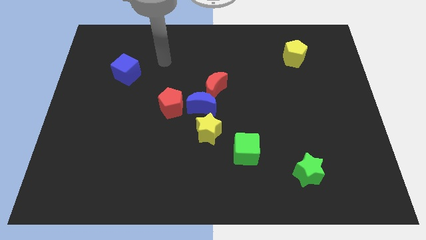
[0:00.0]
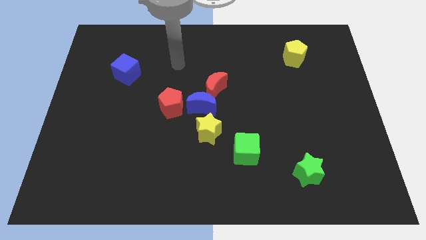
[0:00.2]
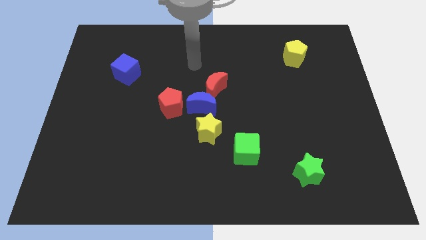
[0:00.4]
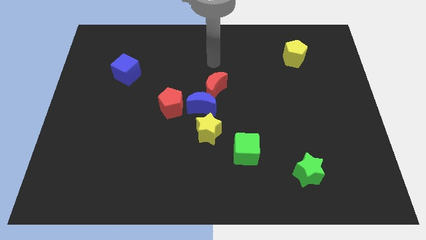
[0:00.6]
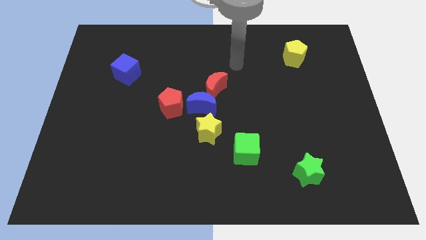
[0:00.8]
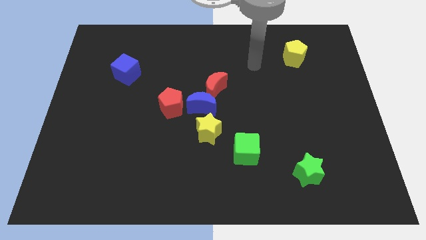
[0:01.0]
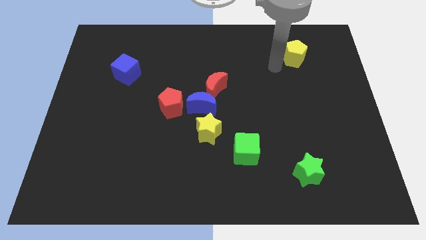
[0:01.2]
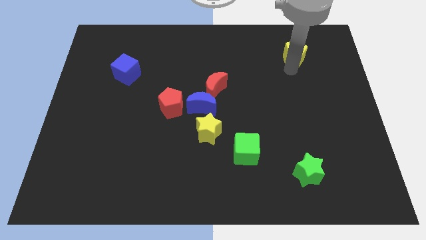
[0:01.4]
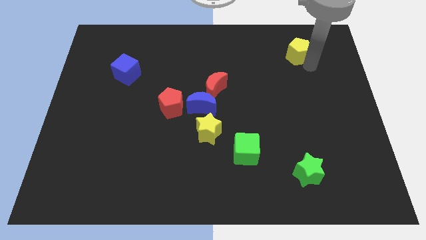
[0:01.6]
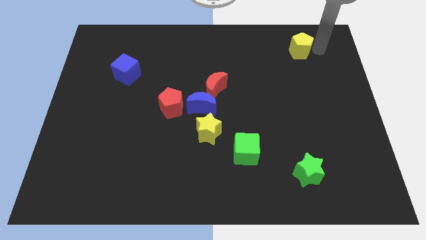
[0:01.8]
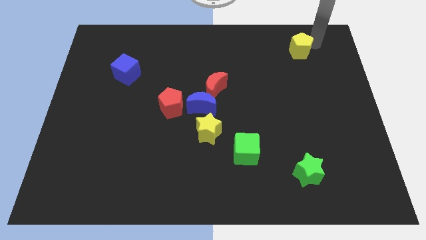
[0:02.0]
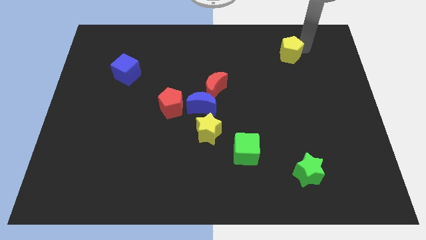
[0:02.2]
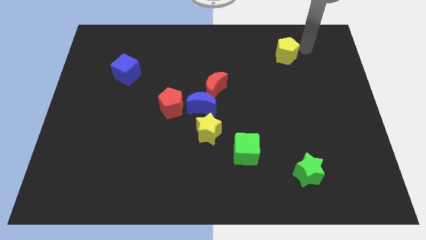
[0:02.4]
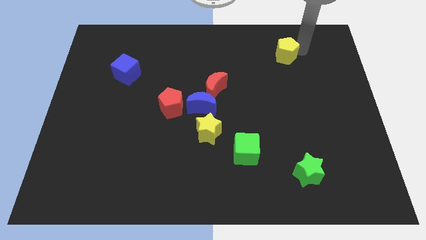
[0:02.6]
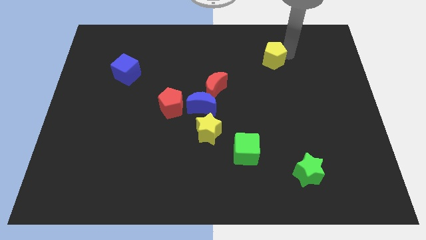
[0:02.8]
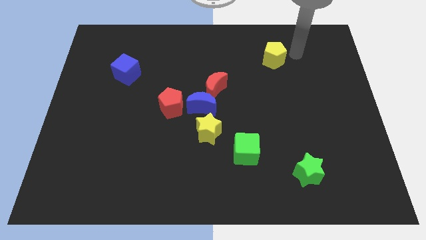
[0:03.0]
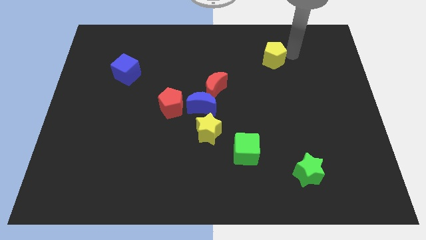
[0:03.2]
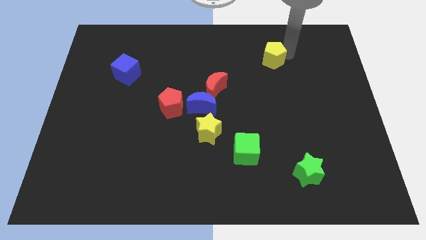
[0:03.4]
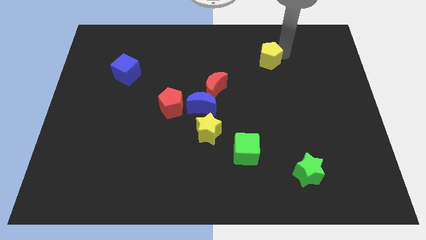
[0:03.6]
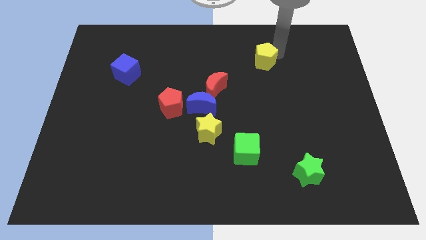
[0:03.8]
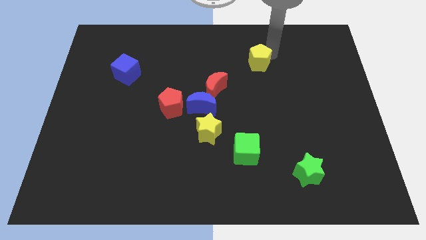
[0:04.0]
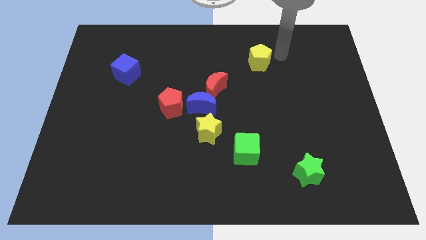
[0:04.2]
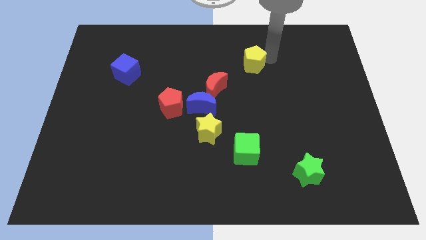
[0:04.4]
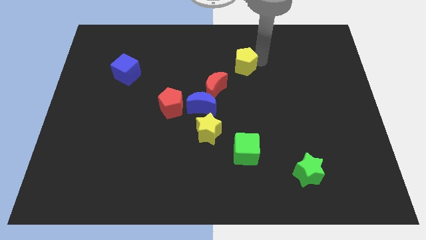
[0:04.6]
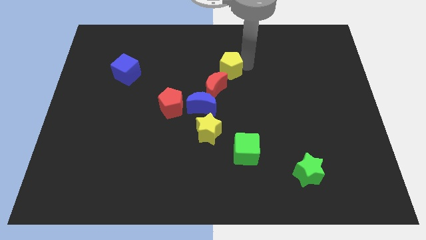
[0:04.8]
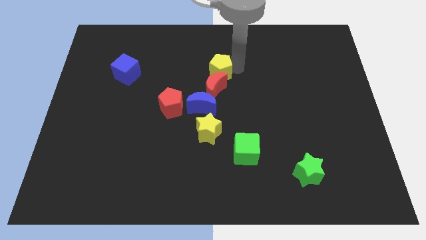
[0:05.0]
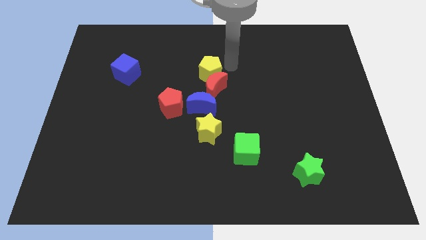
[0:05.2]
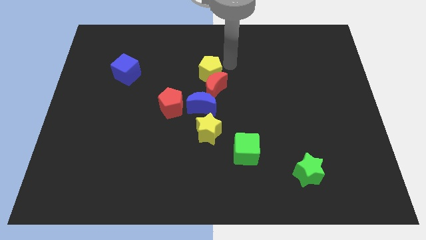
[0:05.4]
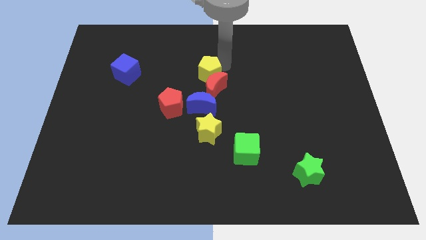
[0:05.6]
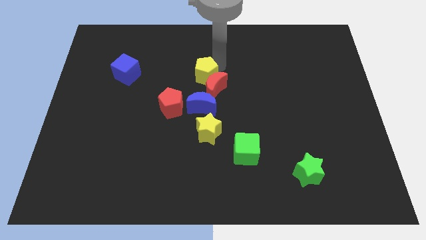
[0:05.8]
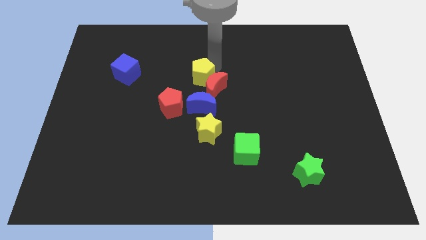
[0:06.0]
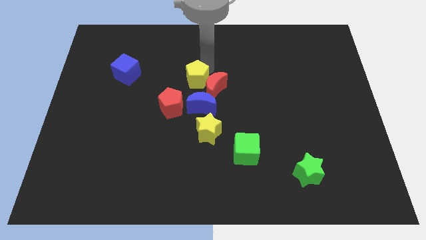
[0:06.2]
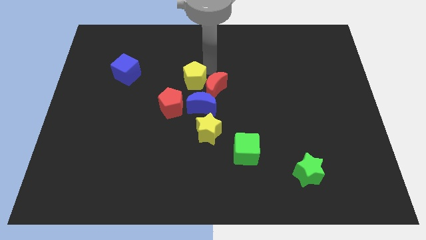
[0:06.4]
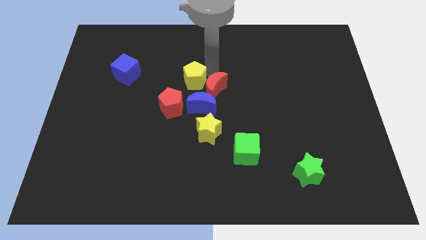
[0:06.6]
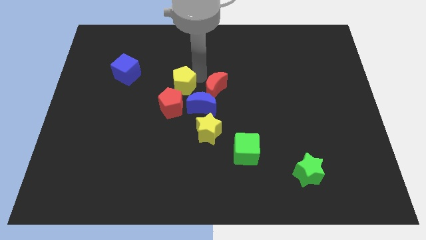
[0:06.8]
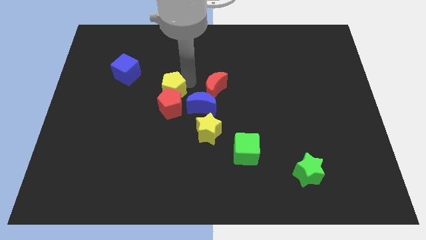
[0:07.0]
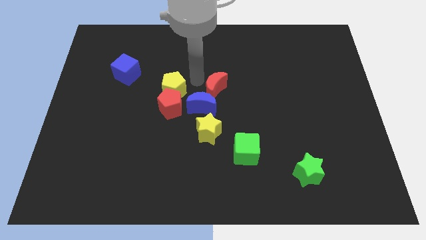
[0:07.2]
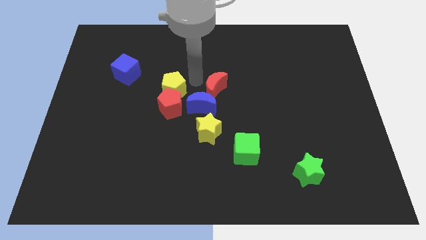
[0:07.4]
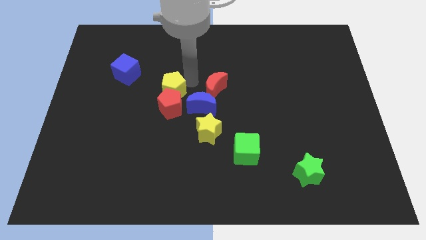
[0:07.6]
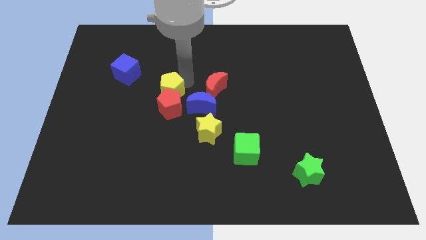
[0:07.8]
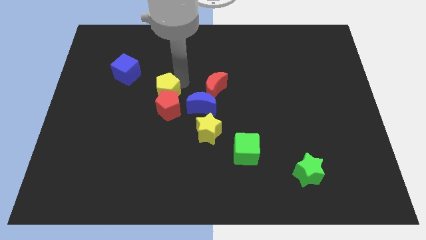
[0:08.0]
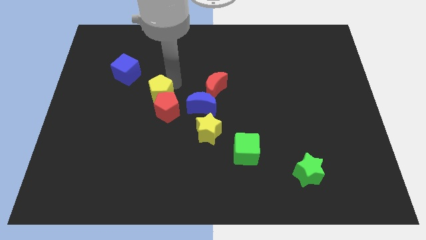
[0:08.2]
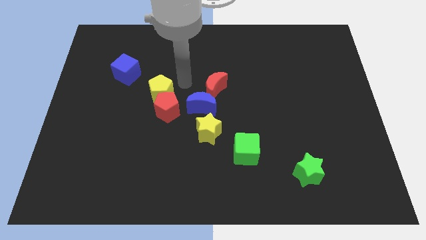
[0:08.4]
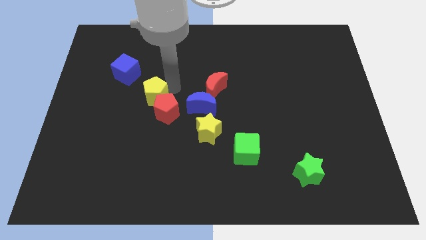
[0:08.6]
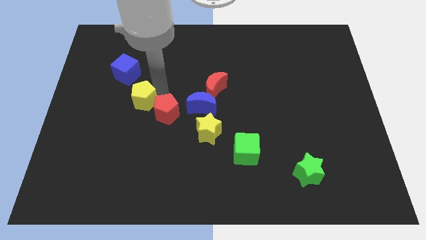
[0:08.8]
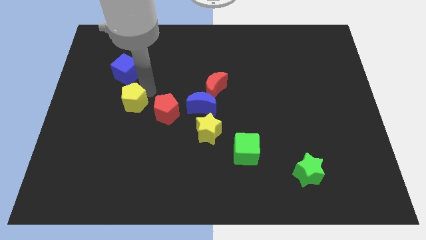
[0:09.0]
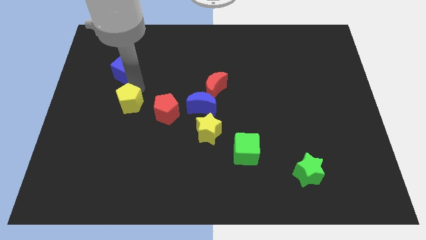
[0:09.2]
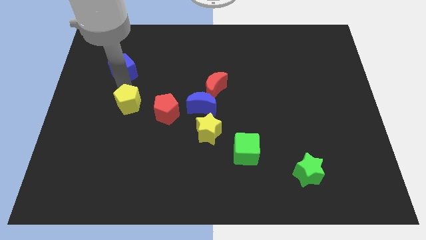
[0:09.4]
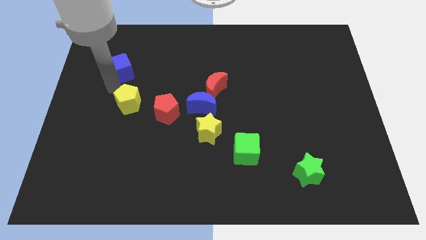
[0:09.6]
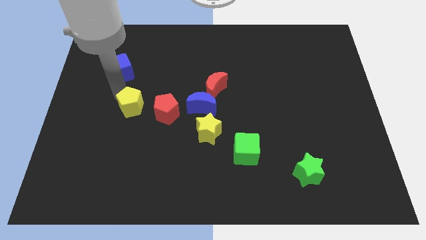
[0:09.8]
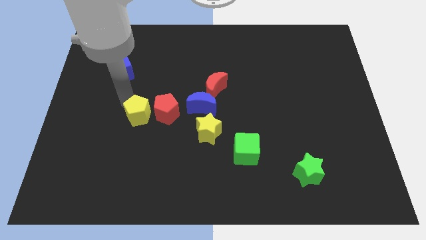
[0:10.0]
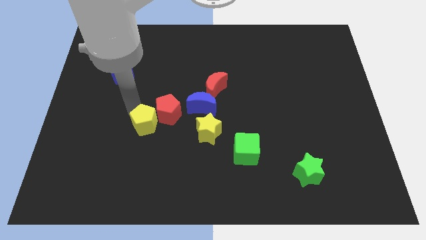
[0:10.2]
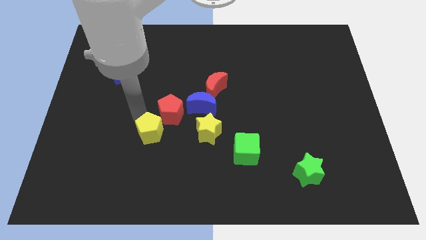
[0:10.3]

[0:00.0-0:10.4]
push the yellow pentagon below the red pentagon

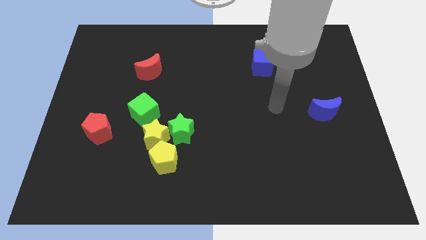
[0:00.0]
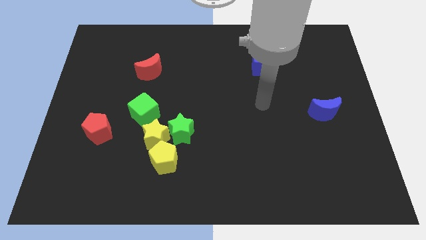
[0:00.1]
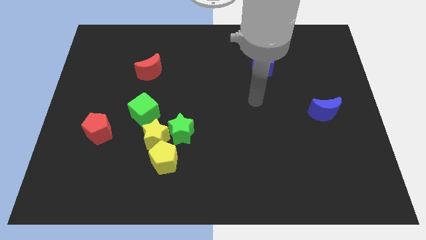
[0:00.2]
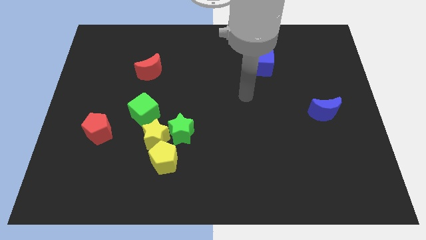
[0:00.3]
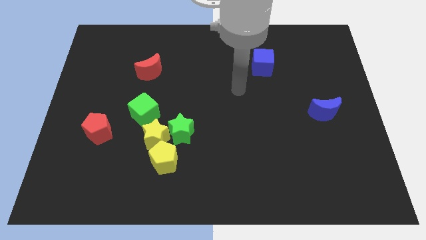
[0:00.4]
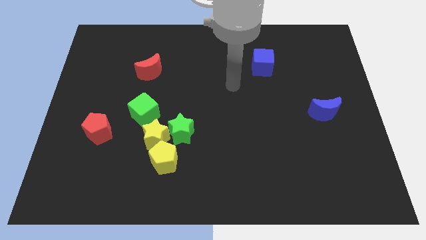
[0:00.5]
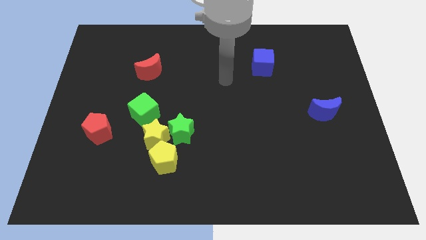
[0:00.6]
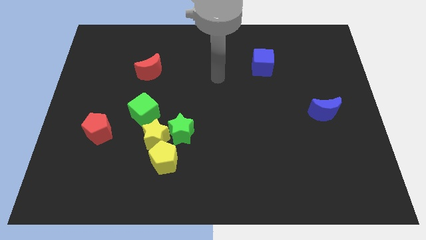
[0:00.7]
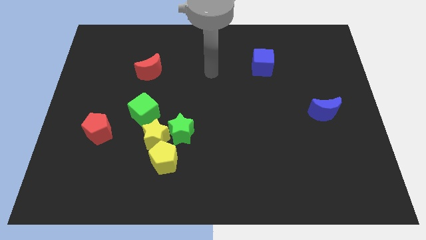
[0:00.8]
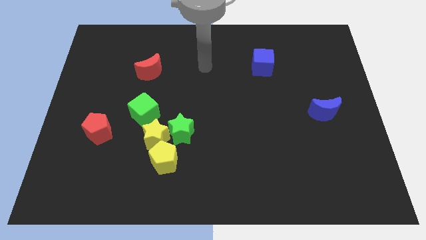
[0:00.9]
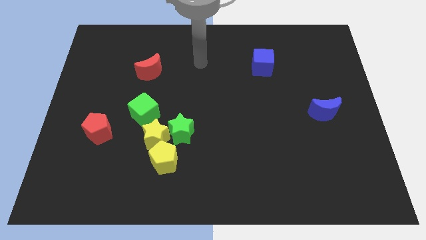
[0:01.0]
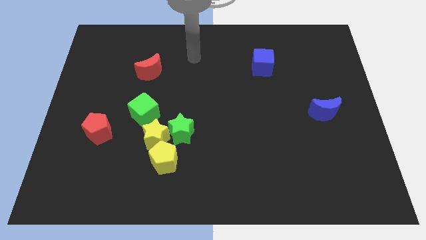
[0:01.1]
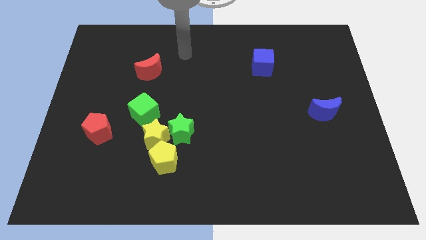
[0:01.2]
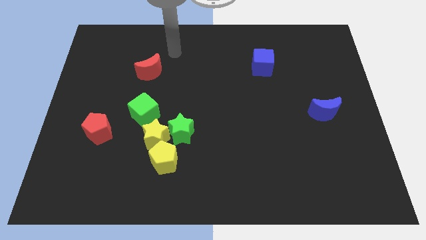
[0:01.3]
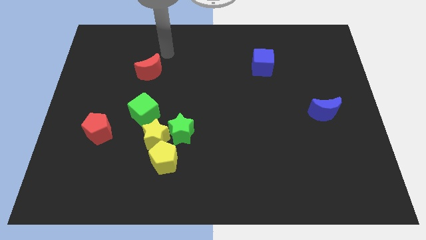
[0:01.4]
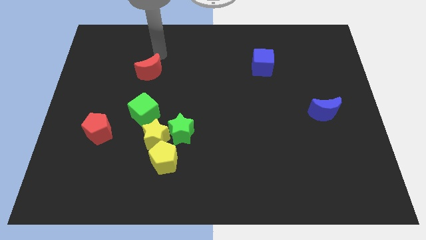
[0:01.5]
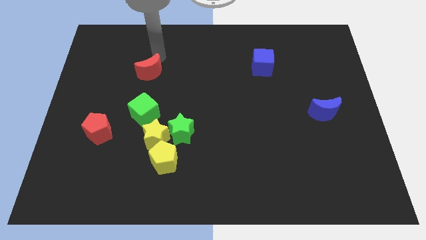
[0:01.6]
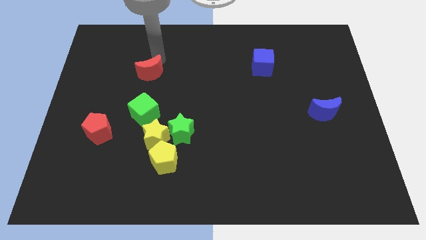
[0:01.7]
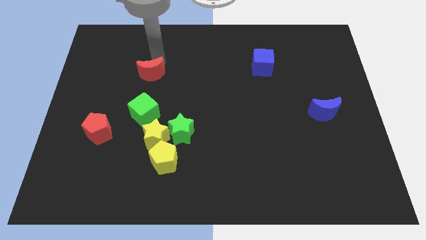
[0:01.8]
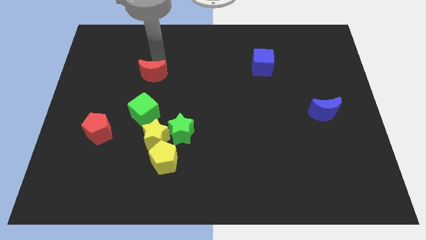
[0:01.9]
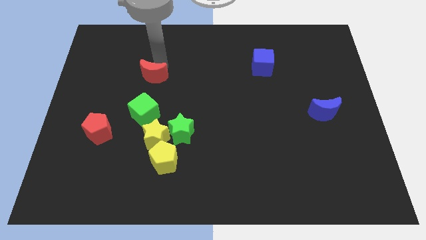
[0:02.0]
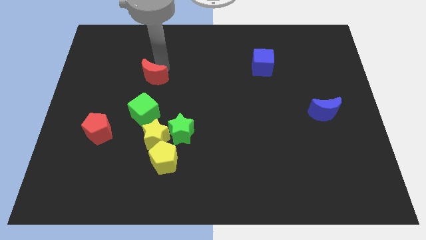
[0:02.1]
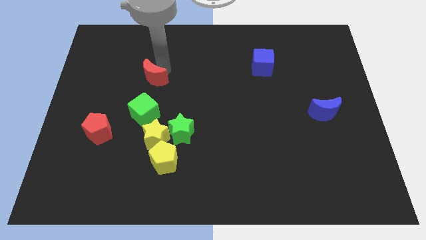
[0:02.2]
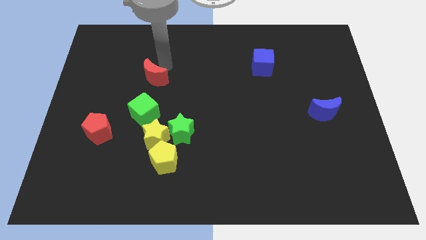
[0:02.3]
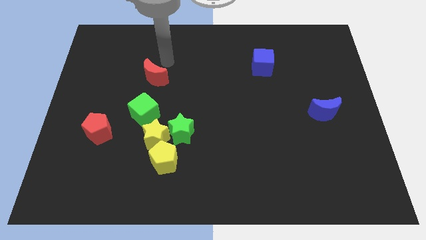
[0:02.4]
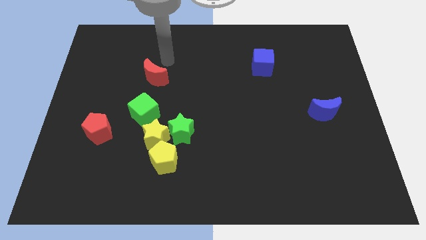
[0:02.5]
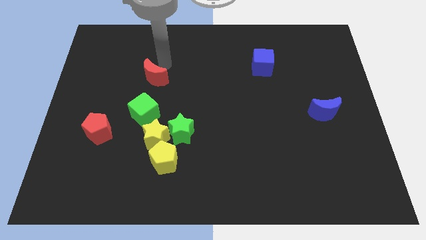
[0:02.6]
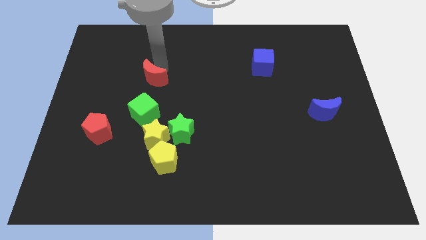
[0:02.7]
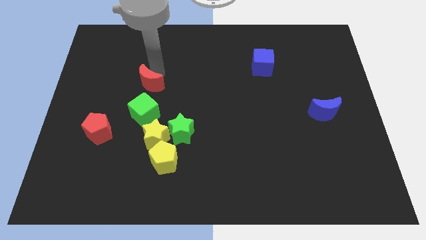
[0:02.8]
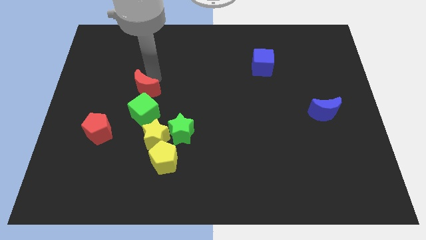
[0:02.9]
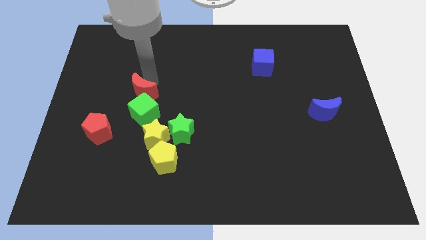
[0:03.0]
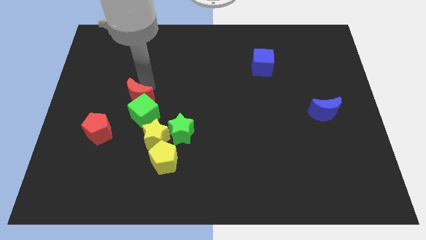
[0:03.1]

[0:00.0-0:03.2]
push the red moon diagonally up and to the right of the red pentagon
